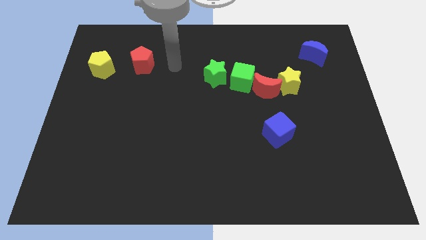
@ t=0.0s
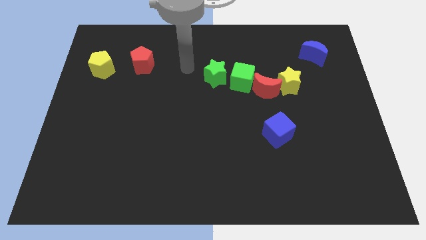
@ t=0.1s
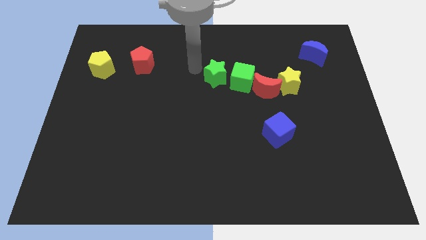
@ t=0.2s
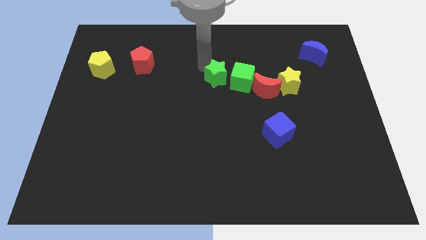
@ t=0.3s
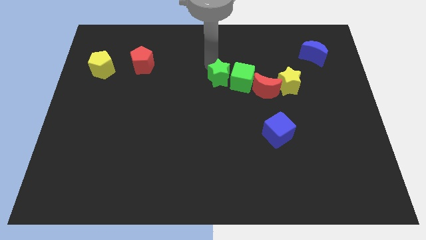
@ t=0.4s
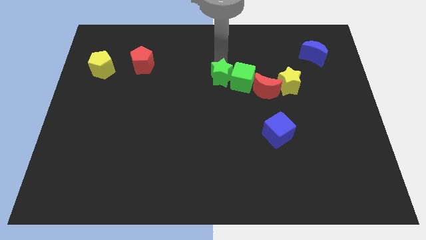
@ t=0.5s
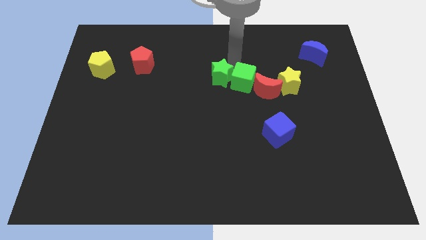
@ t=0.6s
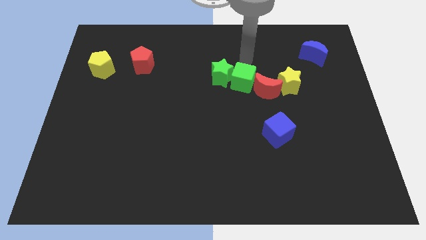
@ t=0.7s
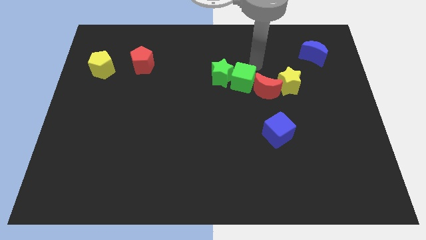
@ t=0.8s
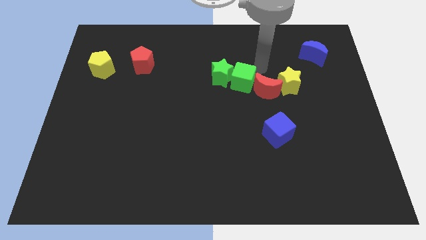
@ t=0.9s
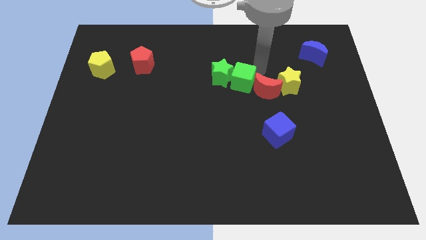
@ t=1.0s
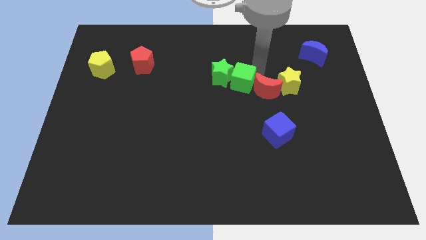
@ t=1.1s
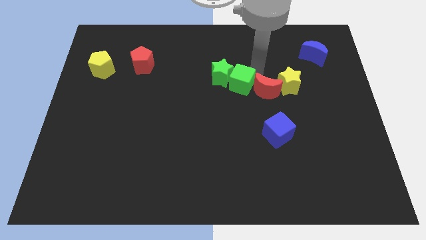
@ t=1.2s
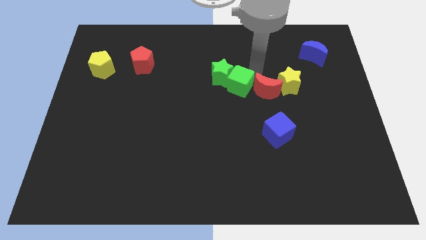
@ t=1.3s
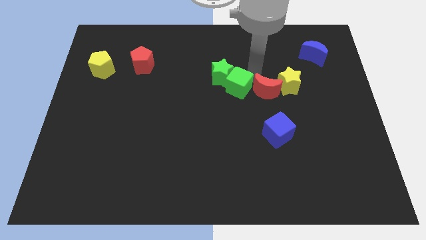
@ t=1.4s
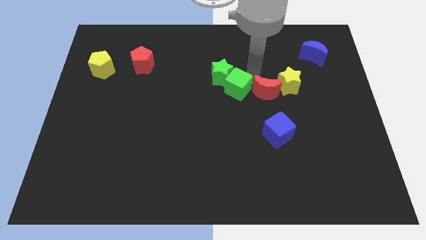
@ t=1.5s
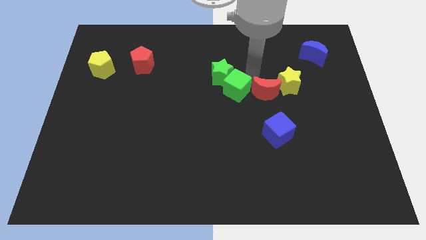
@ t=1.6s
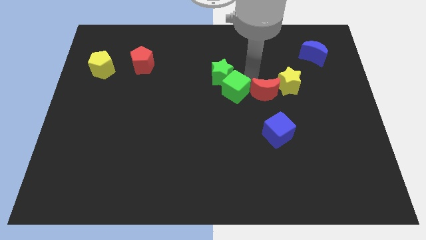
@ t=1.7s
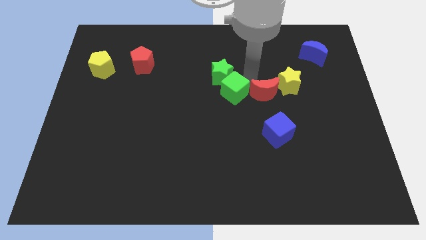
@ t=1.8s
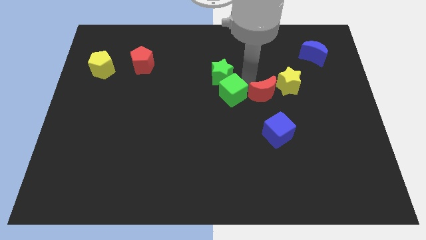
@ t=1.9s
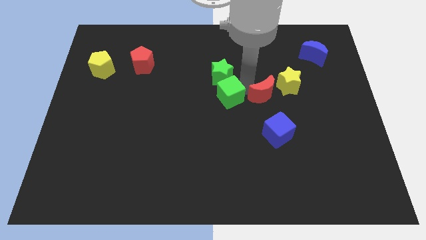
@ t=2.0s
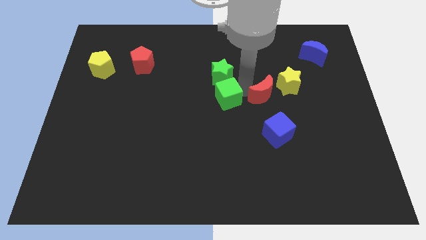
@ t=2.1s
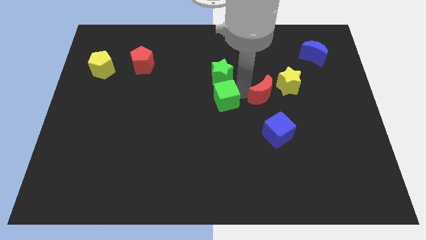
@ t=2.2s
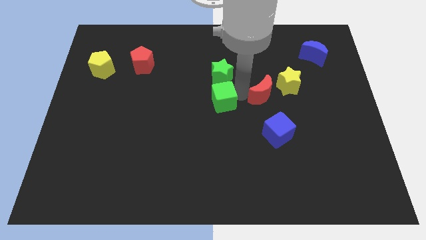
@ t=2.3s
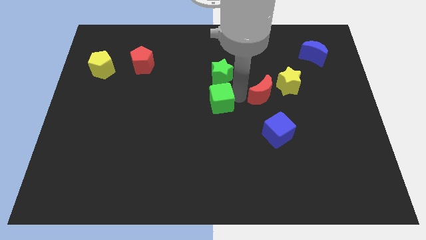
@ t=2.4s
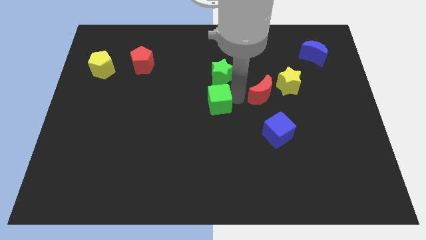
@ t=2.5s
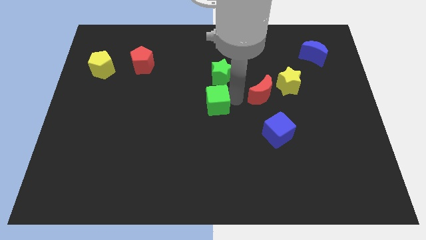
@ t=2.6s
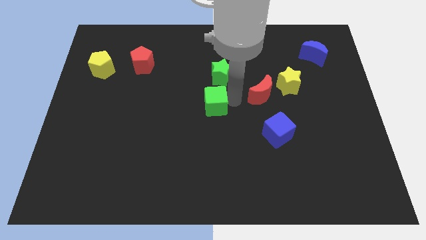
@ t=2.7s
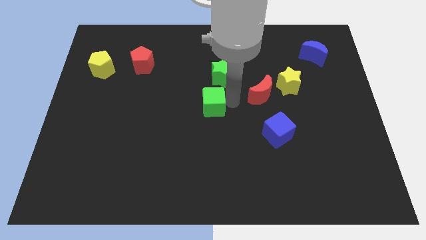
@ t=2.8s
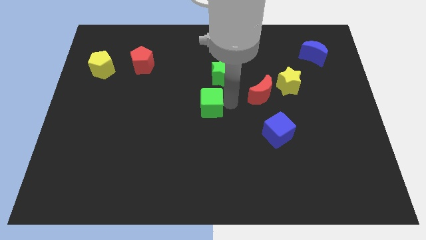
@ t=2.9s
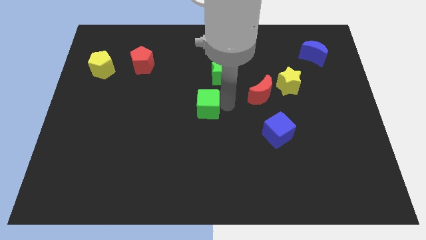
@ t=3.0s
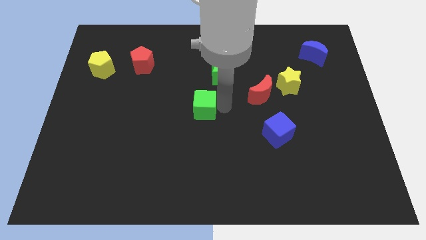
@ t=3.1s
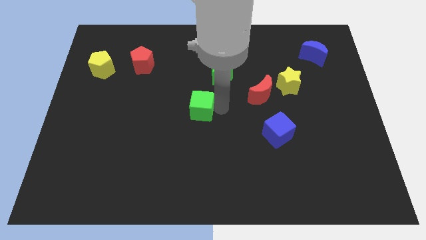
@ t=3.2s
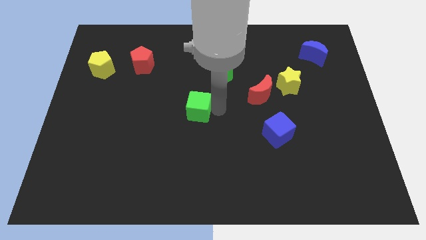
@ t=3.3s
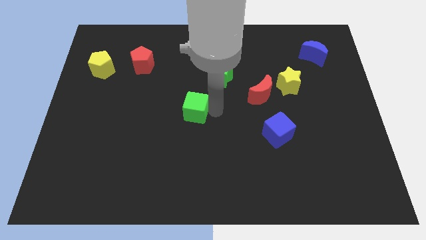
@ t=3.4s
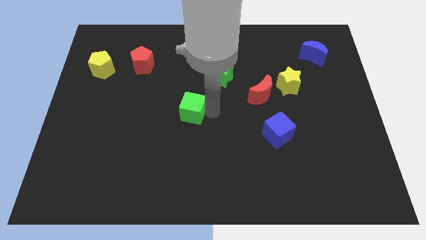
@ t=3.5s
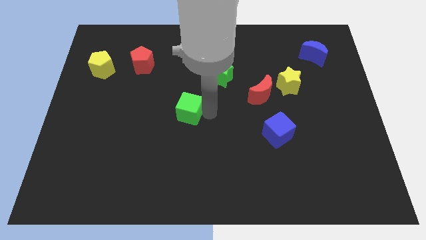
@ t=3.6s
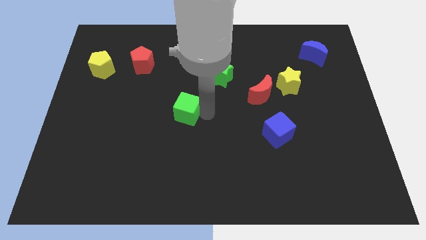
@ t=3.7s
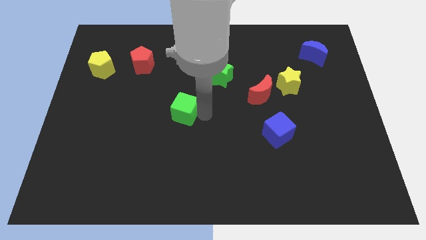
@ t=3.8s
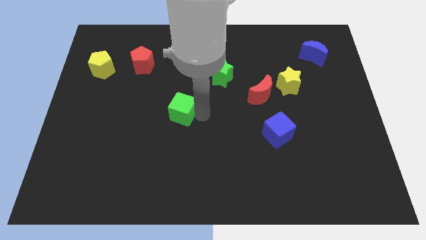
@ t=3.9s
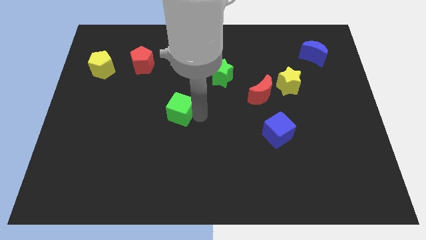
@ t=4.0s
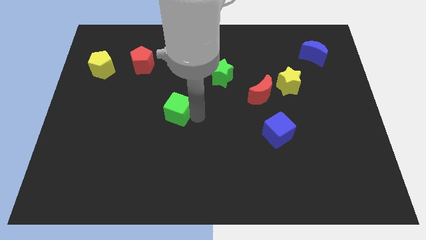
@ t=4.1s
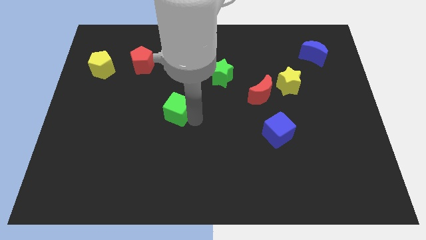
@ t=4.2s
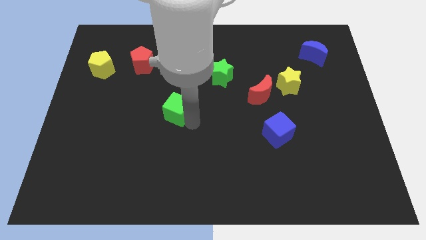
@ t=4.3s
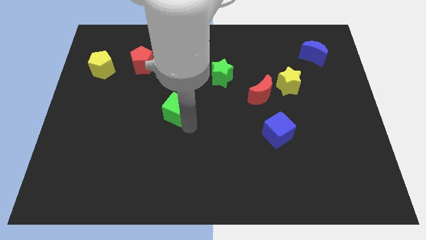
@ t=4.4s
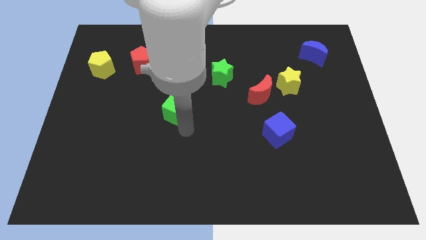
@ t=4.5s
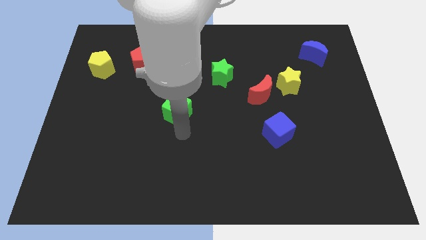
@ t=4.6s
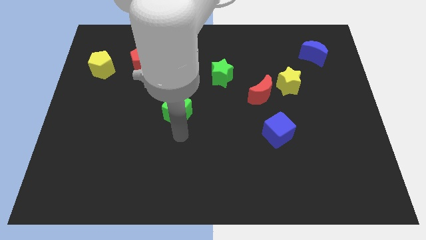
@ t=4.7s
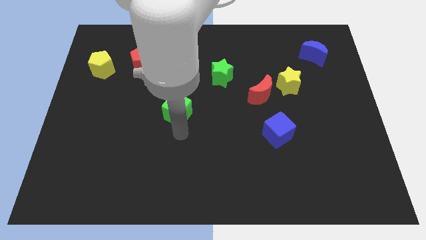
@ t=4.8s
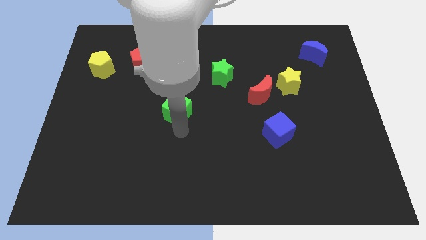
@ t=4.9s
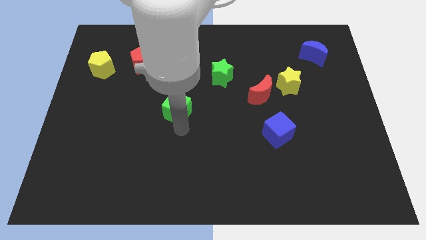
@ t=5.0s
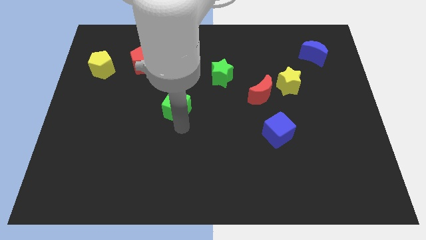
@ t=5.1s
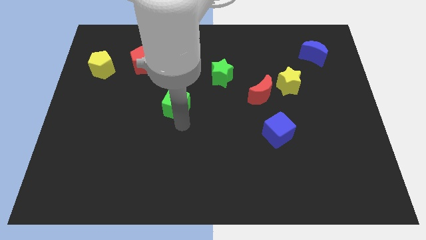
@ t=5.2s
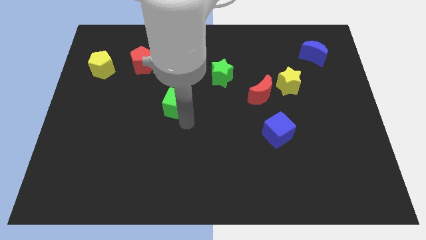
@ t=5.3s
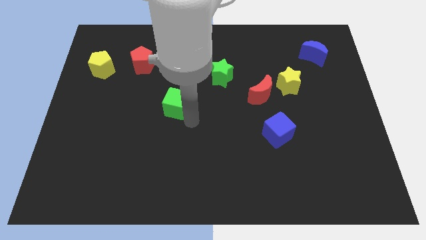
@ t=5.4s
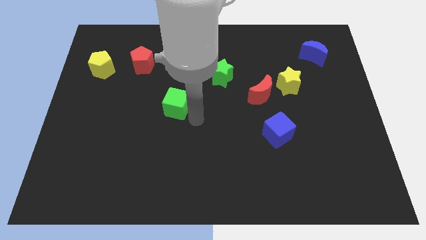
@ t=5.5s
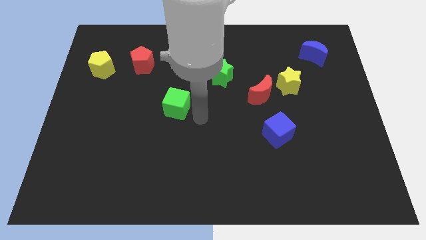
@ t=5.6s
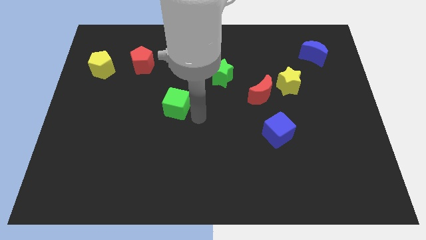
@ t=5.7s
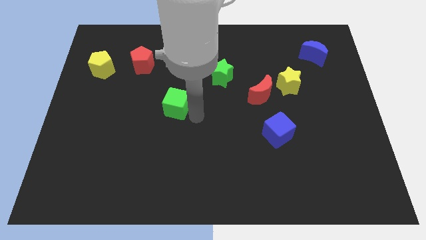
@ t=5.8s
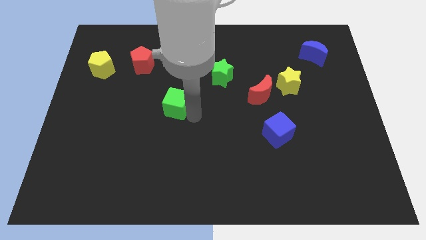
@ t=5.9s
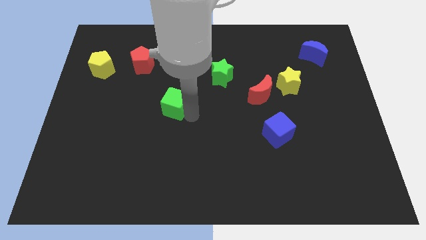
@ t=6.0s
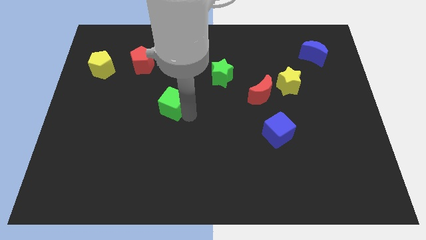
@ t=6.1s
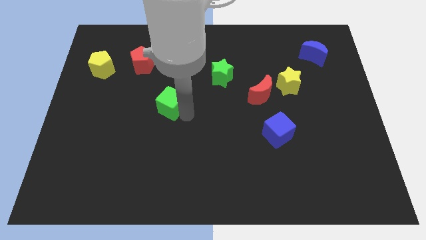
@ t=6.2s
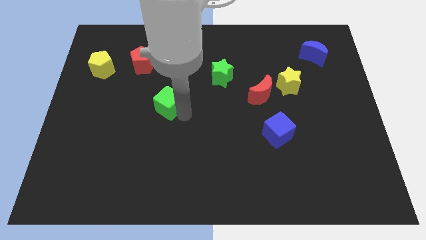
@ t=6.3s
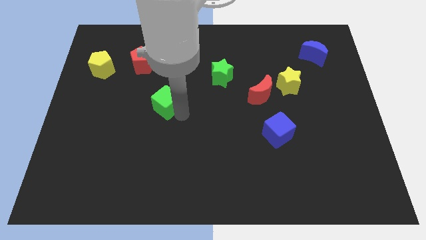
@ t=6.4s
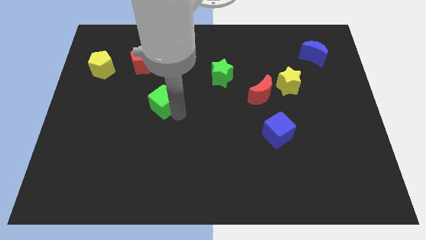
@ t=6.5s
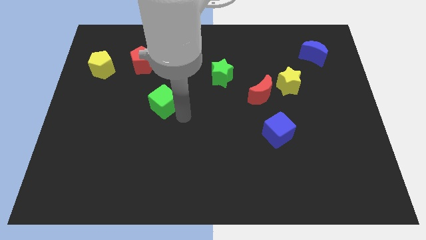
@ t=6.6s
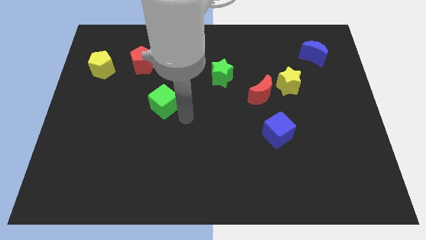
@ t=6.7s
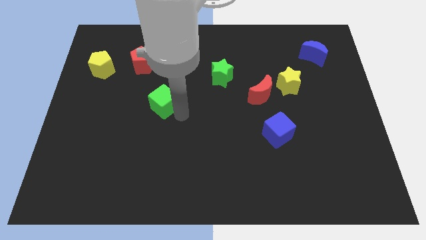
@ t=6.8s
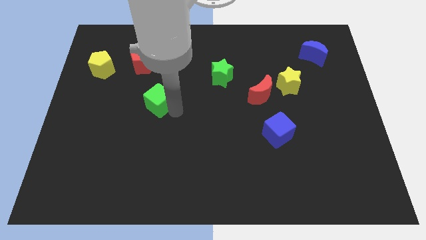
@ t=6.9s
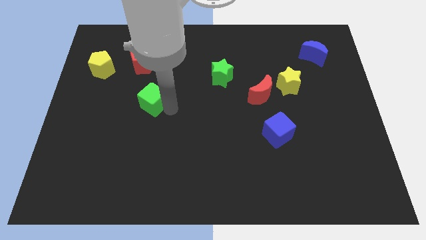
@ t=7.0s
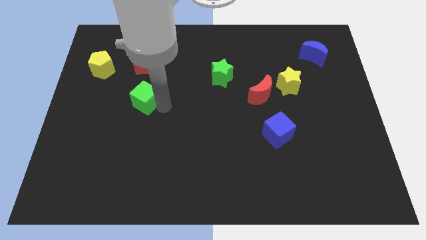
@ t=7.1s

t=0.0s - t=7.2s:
push the green cube left

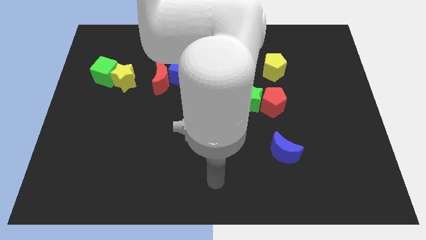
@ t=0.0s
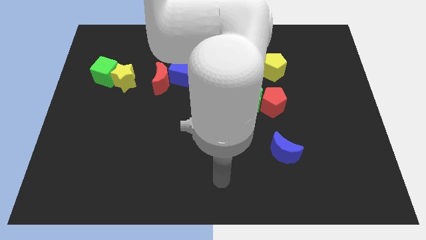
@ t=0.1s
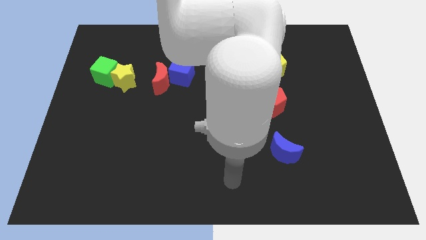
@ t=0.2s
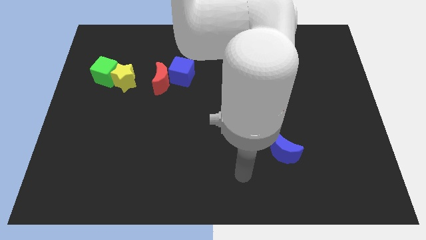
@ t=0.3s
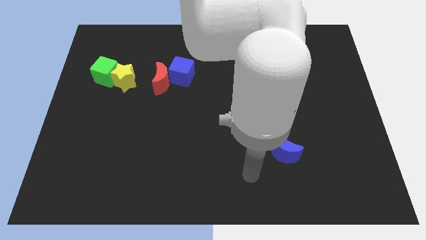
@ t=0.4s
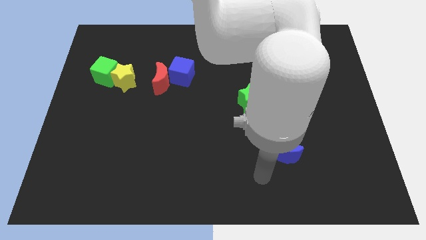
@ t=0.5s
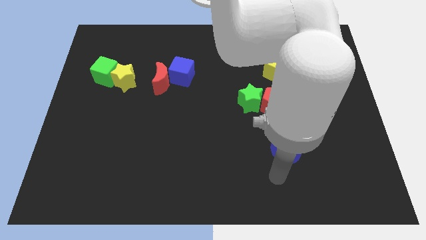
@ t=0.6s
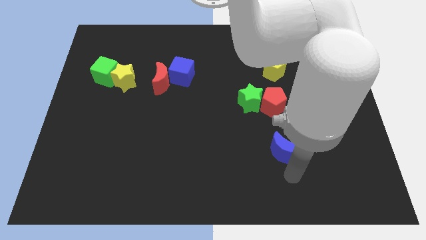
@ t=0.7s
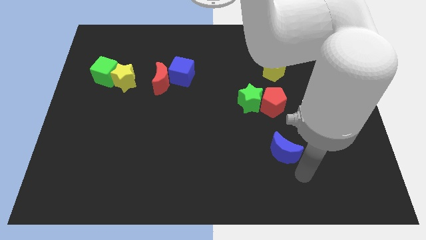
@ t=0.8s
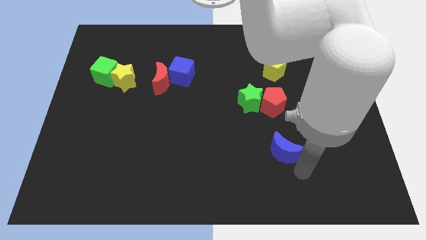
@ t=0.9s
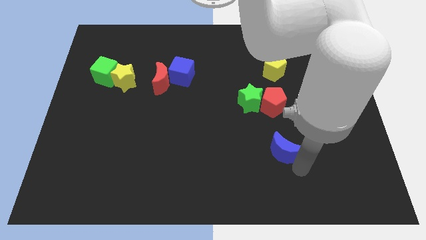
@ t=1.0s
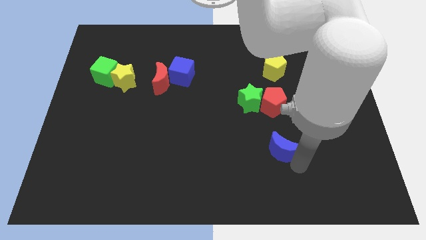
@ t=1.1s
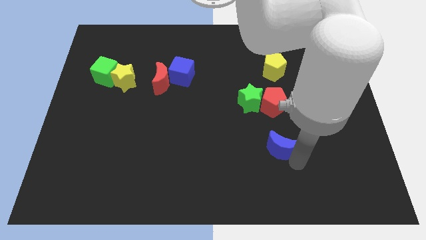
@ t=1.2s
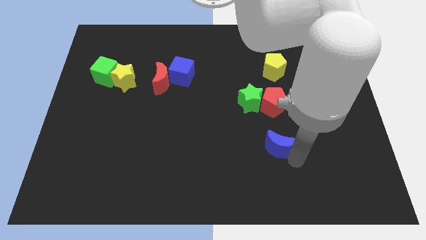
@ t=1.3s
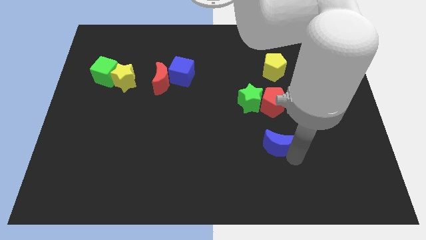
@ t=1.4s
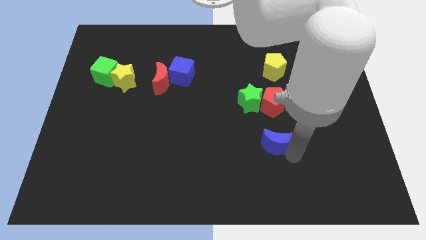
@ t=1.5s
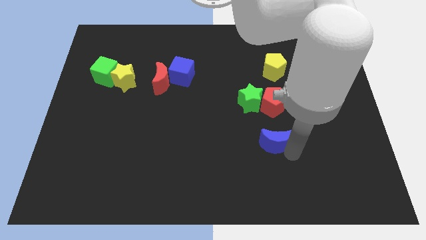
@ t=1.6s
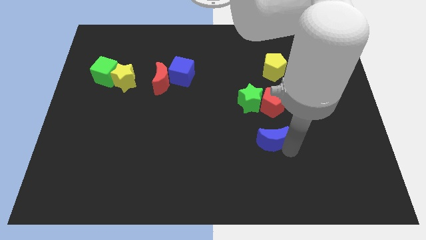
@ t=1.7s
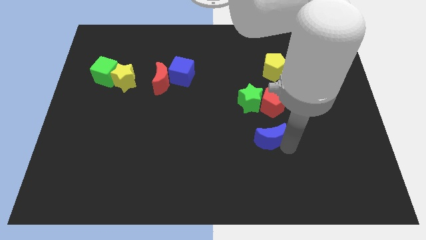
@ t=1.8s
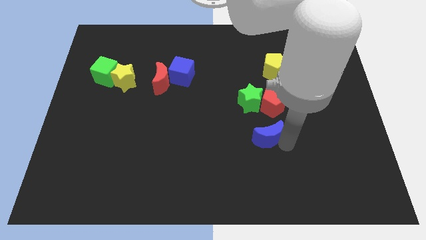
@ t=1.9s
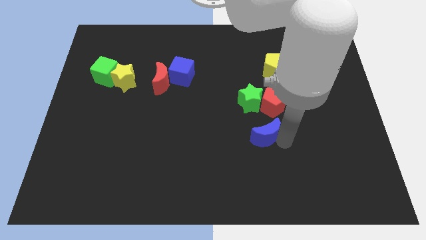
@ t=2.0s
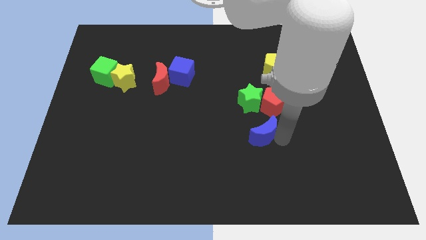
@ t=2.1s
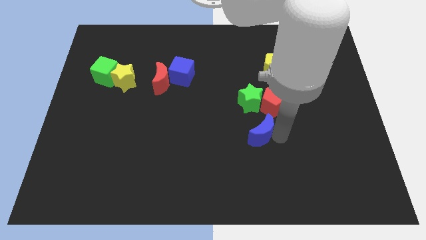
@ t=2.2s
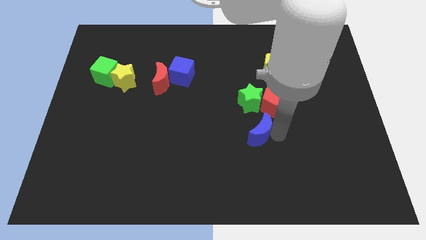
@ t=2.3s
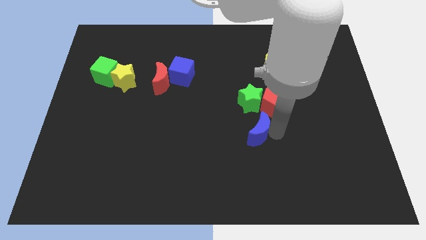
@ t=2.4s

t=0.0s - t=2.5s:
slide the blue moon upwards and then to the left somewhat
